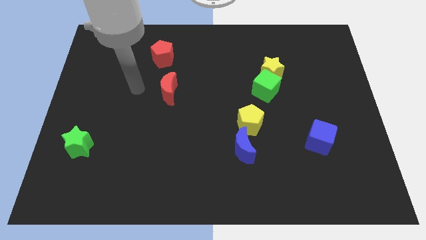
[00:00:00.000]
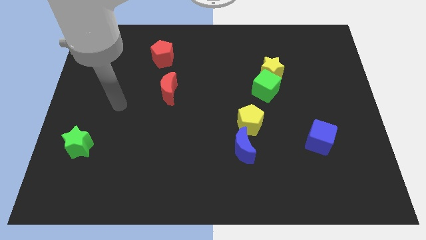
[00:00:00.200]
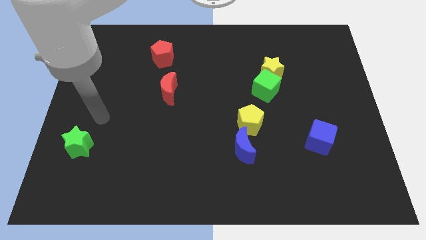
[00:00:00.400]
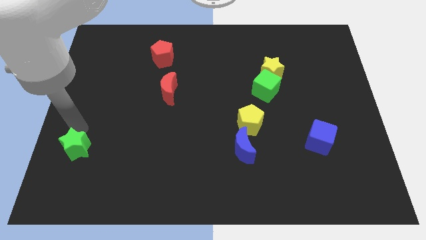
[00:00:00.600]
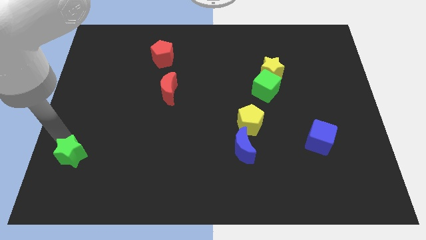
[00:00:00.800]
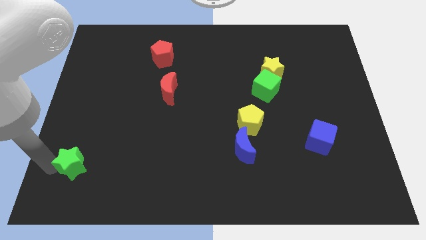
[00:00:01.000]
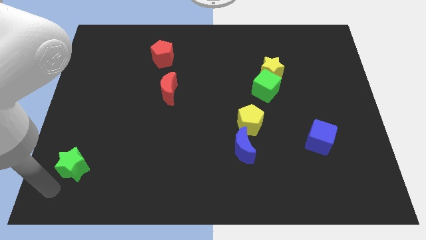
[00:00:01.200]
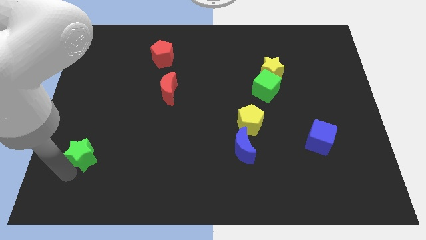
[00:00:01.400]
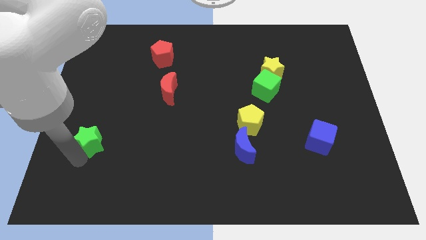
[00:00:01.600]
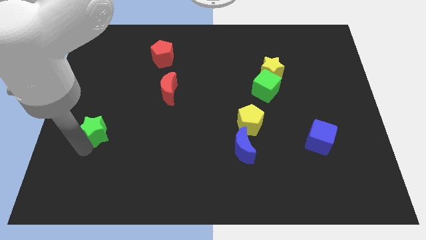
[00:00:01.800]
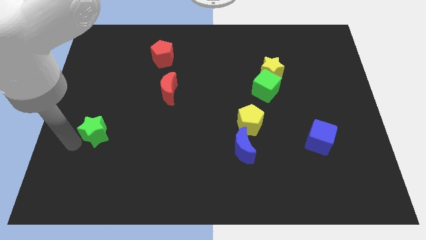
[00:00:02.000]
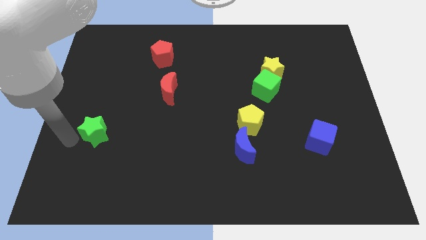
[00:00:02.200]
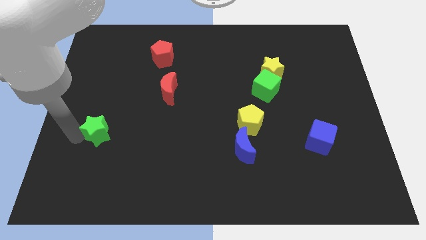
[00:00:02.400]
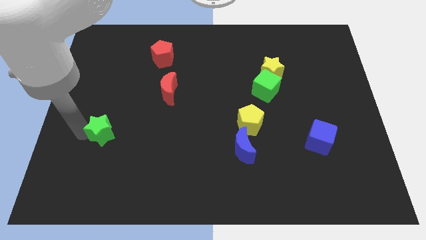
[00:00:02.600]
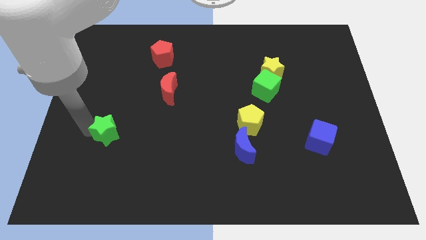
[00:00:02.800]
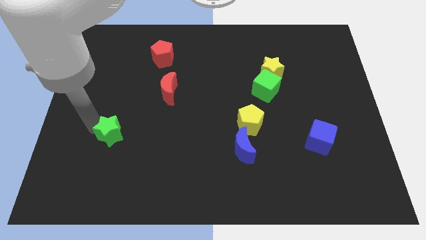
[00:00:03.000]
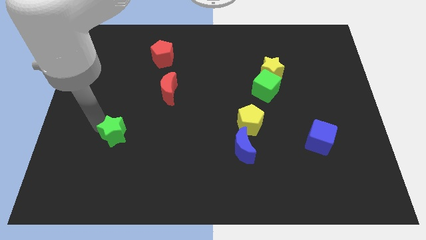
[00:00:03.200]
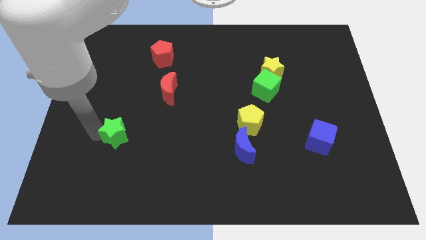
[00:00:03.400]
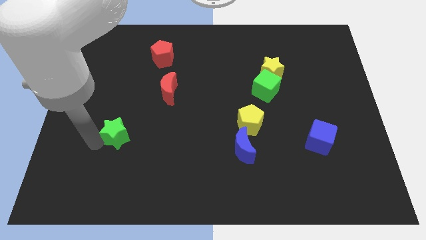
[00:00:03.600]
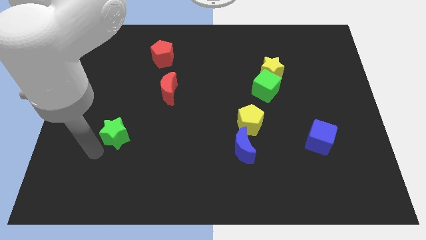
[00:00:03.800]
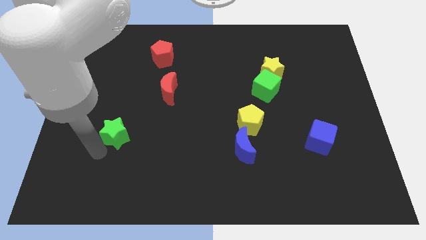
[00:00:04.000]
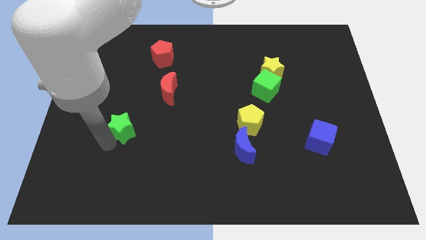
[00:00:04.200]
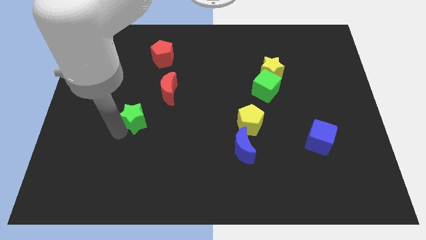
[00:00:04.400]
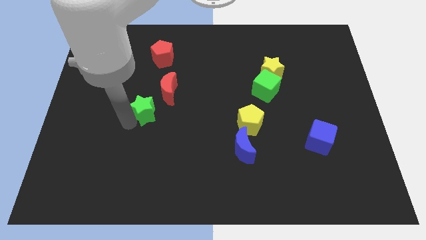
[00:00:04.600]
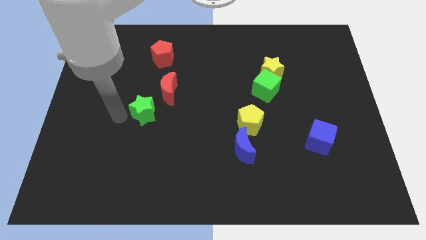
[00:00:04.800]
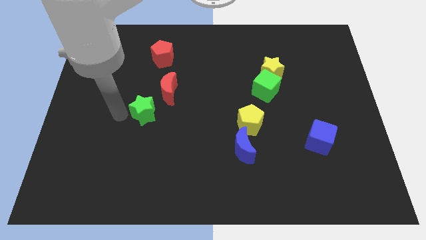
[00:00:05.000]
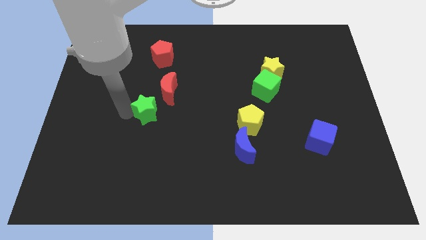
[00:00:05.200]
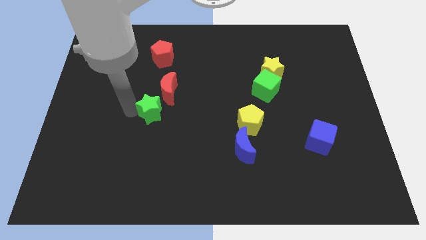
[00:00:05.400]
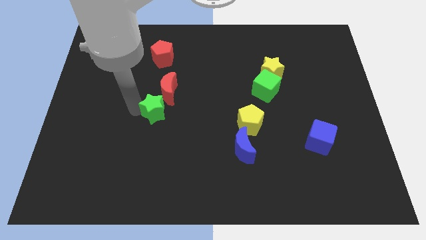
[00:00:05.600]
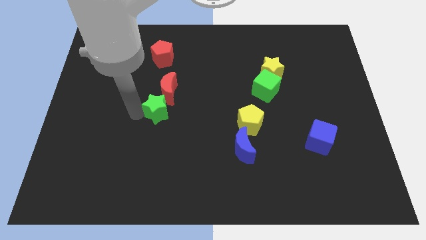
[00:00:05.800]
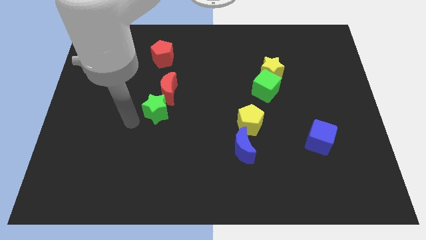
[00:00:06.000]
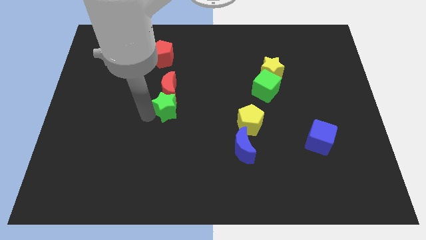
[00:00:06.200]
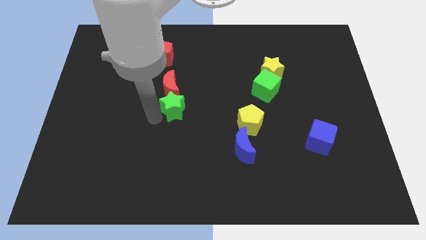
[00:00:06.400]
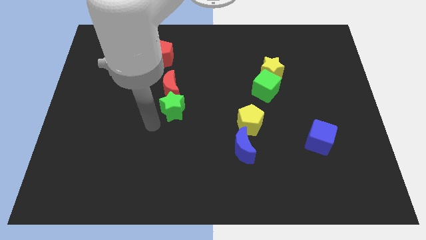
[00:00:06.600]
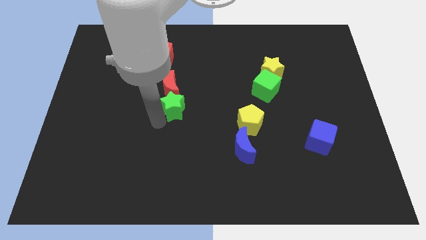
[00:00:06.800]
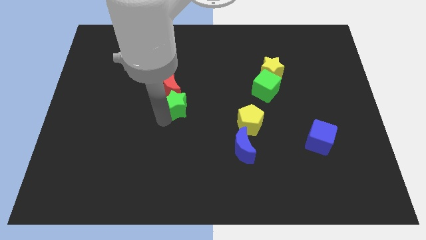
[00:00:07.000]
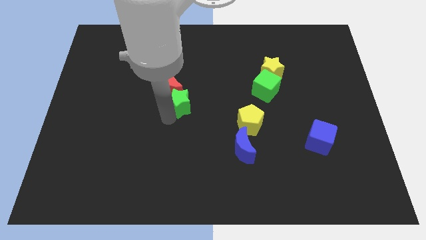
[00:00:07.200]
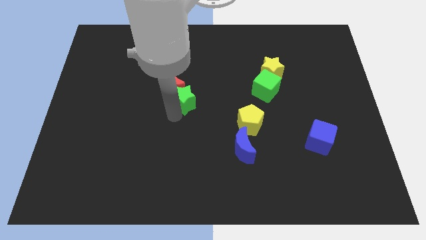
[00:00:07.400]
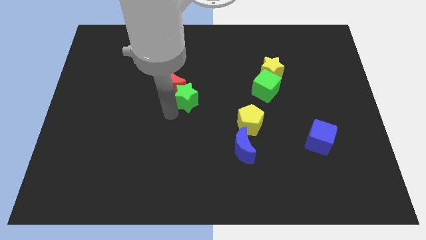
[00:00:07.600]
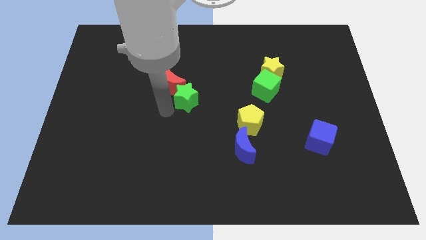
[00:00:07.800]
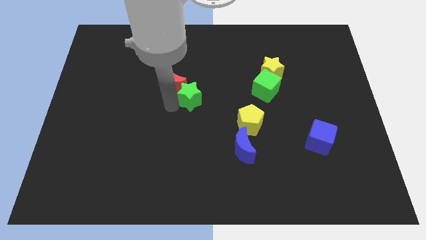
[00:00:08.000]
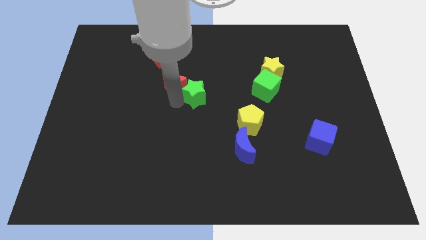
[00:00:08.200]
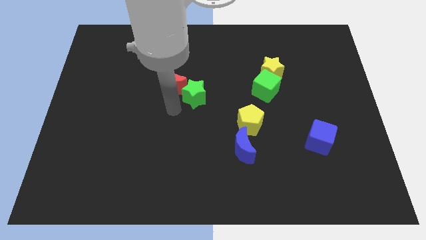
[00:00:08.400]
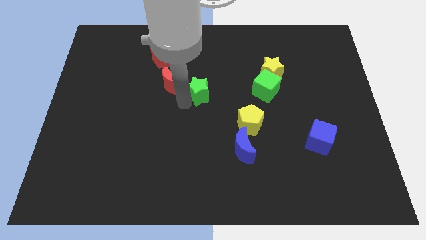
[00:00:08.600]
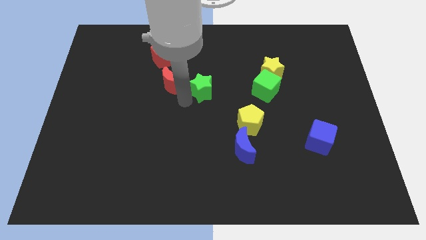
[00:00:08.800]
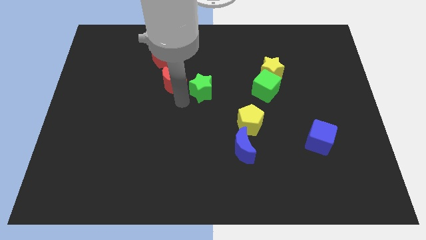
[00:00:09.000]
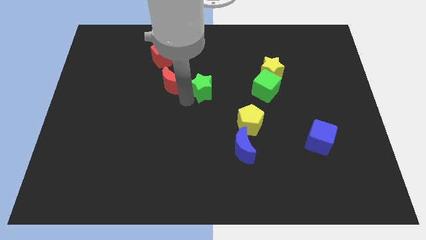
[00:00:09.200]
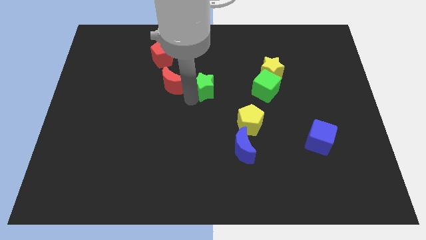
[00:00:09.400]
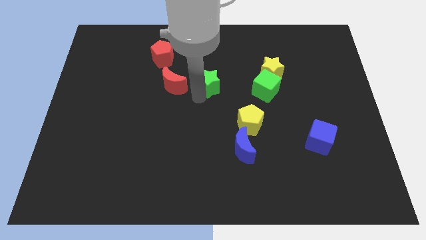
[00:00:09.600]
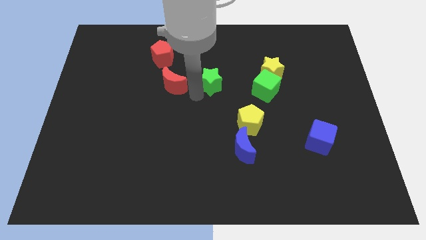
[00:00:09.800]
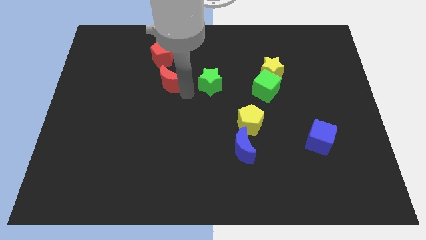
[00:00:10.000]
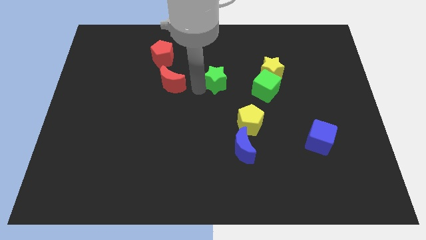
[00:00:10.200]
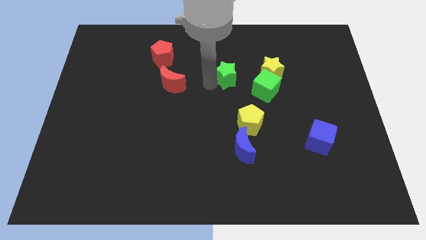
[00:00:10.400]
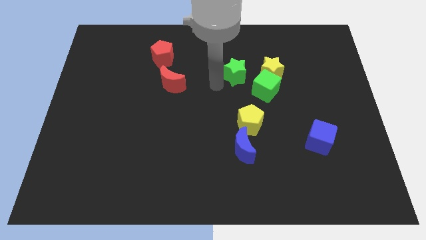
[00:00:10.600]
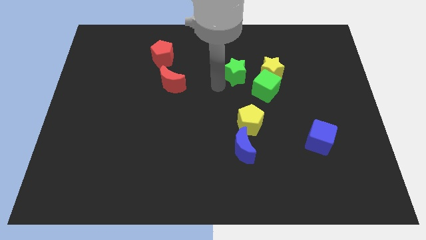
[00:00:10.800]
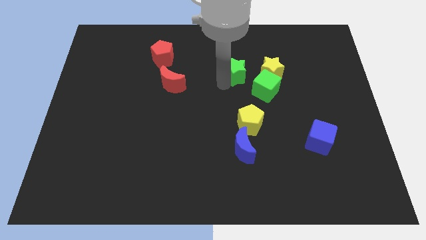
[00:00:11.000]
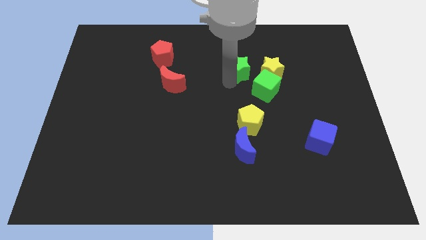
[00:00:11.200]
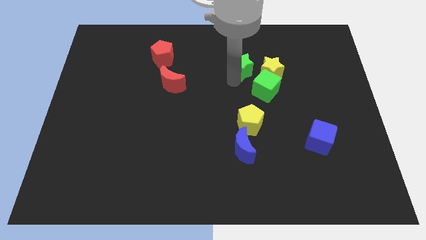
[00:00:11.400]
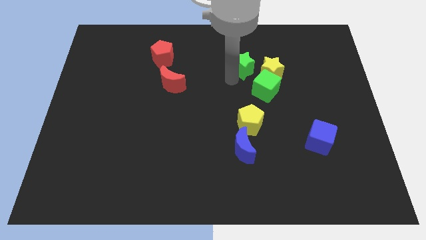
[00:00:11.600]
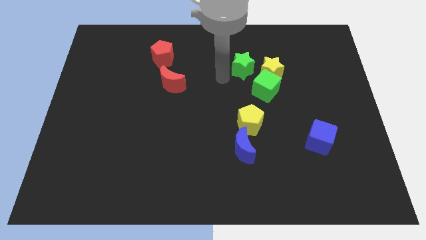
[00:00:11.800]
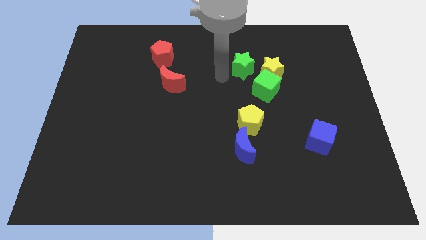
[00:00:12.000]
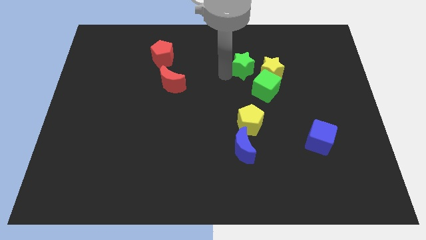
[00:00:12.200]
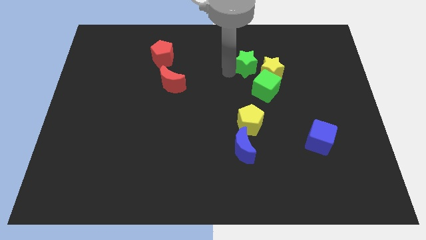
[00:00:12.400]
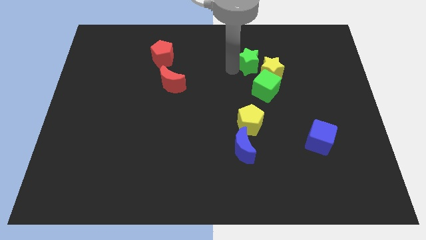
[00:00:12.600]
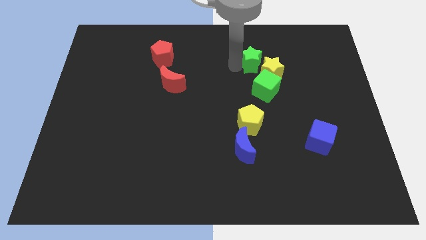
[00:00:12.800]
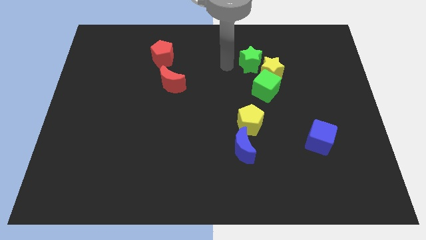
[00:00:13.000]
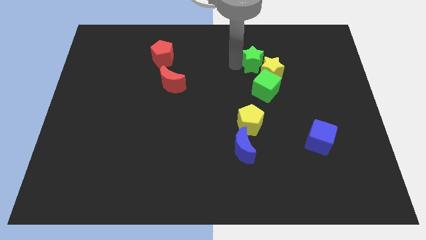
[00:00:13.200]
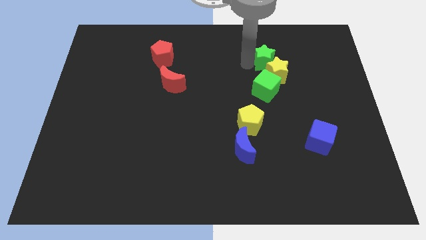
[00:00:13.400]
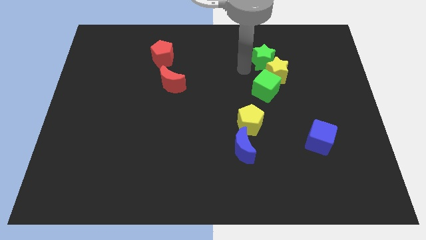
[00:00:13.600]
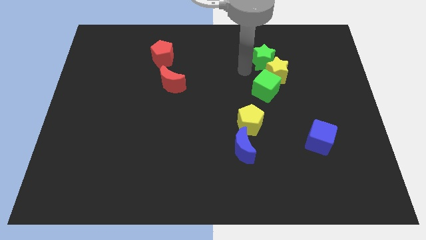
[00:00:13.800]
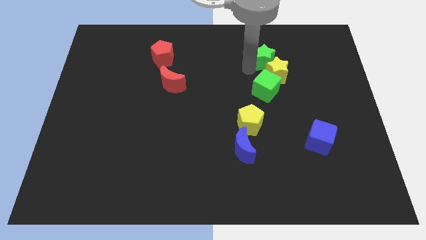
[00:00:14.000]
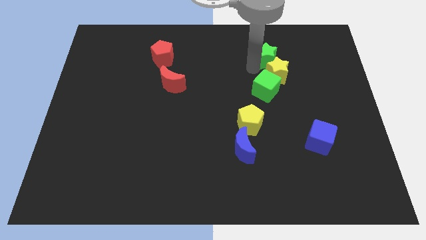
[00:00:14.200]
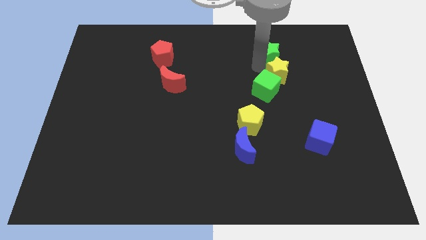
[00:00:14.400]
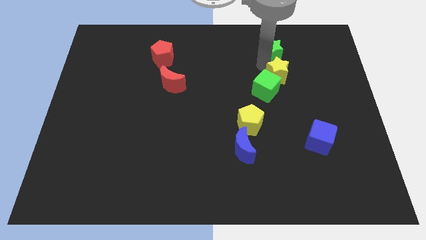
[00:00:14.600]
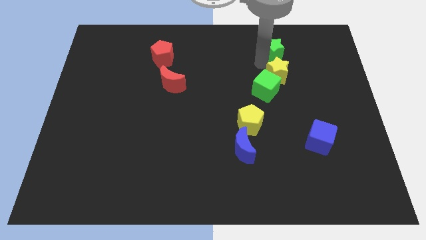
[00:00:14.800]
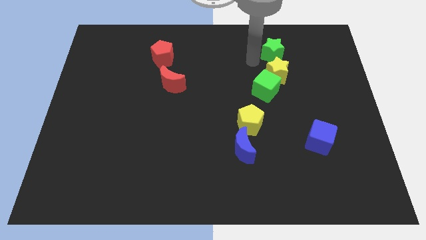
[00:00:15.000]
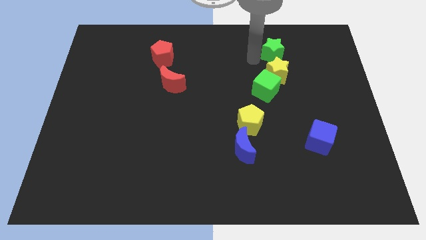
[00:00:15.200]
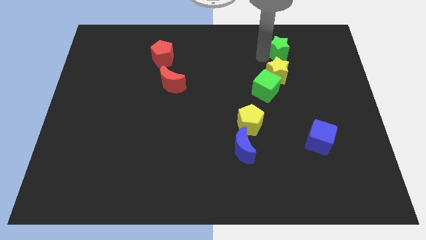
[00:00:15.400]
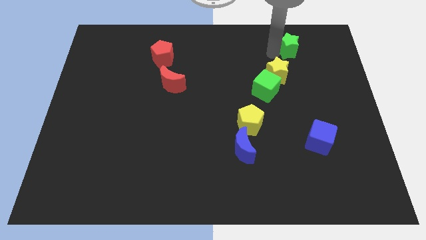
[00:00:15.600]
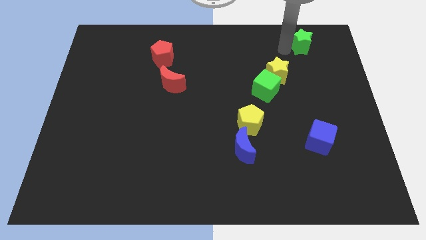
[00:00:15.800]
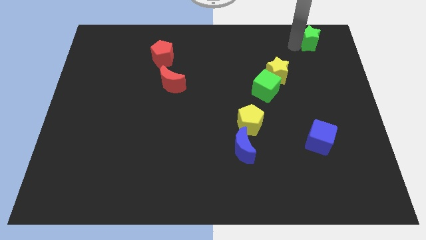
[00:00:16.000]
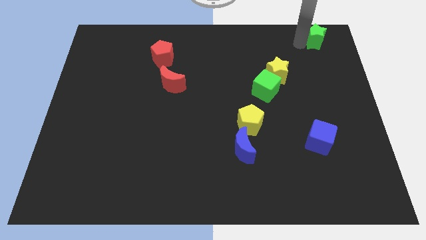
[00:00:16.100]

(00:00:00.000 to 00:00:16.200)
put the green star to the upper right corner
